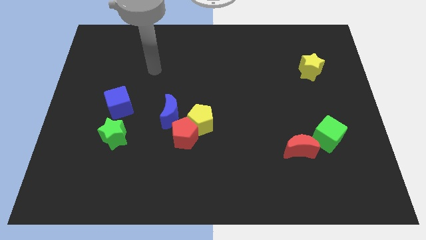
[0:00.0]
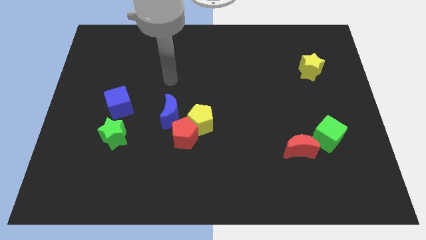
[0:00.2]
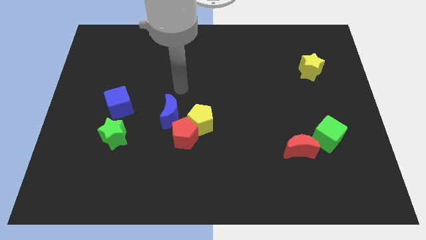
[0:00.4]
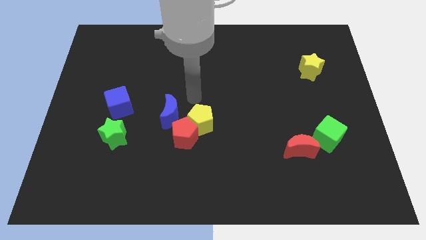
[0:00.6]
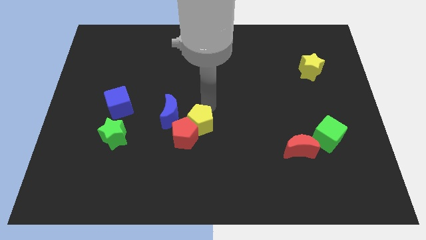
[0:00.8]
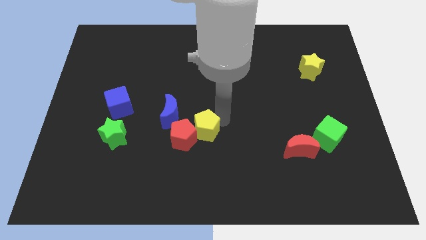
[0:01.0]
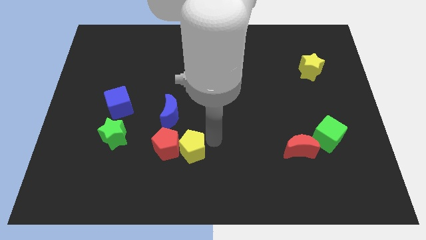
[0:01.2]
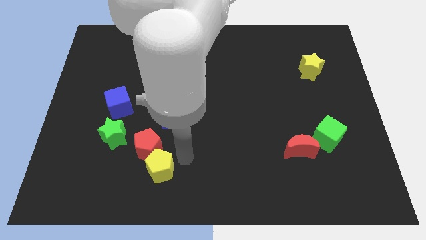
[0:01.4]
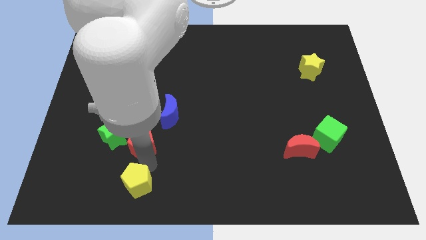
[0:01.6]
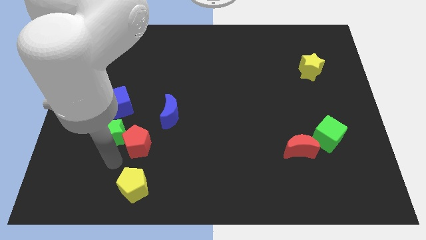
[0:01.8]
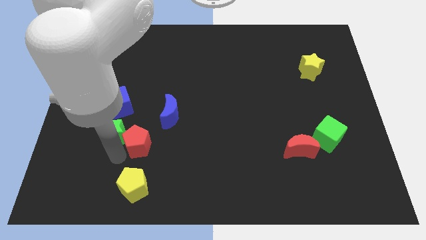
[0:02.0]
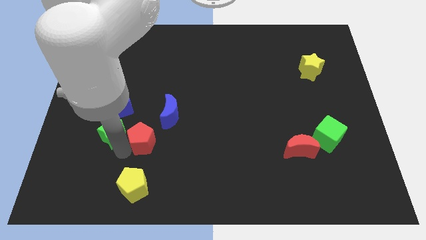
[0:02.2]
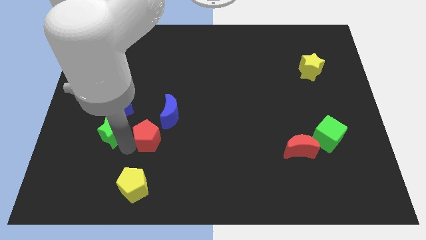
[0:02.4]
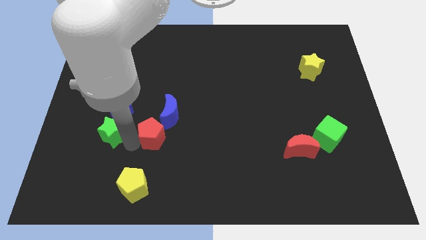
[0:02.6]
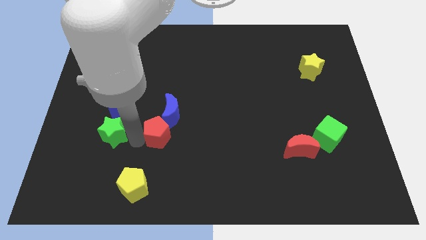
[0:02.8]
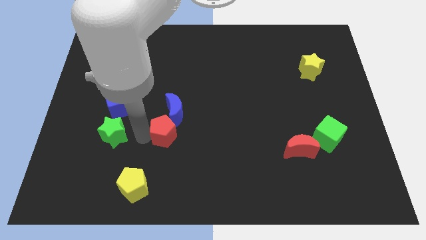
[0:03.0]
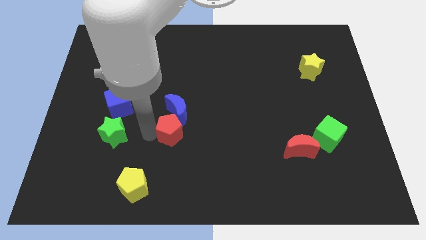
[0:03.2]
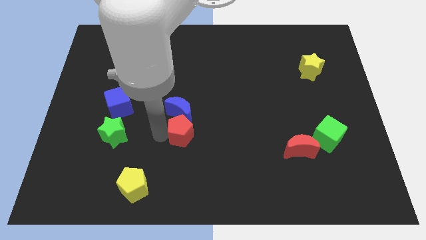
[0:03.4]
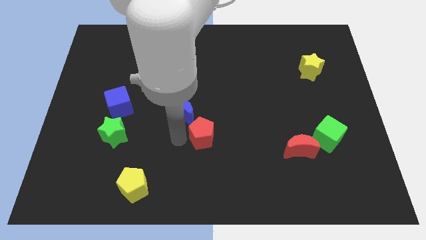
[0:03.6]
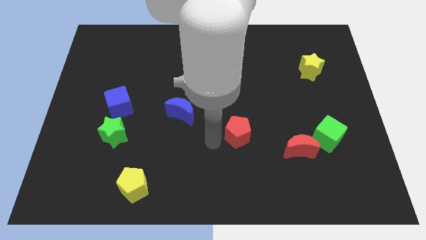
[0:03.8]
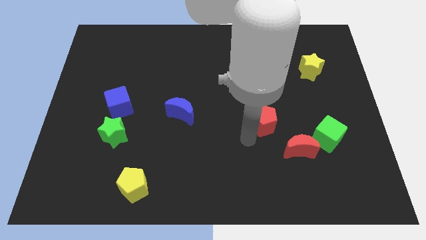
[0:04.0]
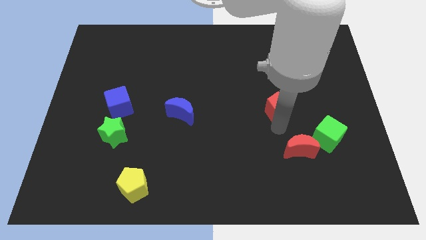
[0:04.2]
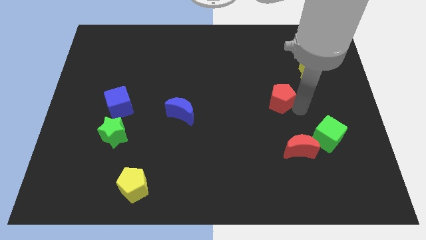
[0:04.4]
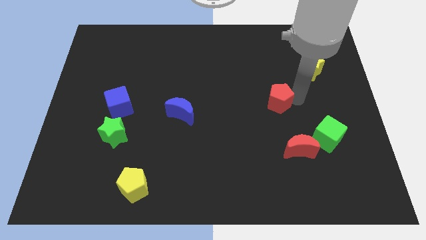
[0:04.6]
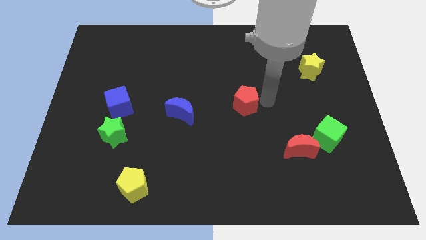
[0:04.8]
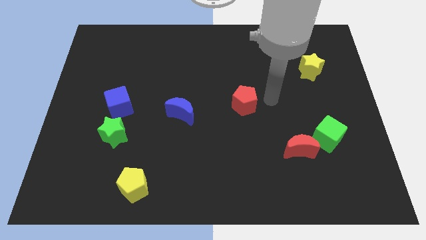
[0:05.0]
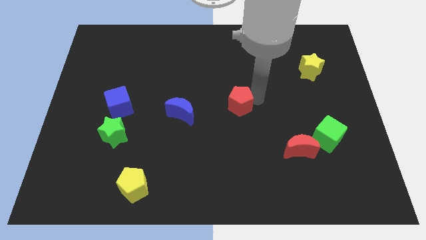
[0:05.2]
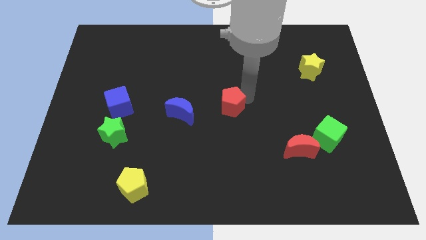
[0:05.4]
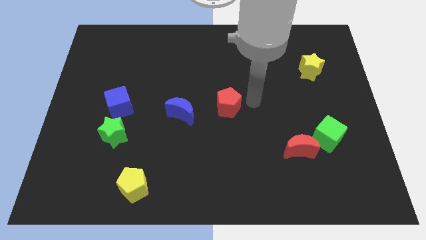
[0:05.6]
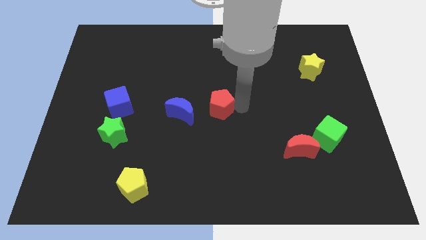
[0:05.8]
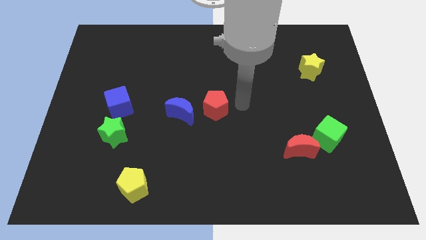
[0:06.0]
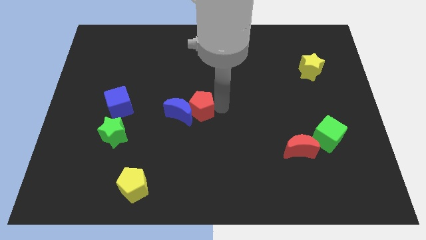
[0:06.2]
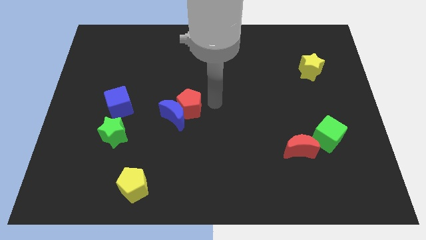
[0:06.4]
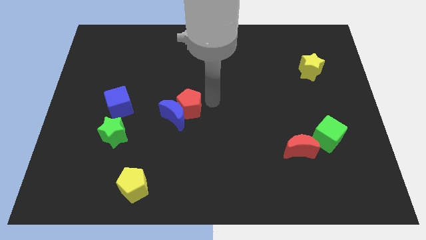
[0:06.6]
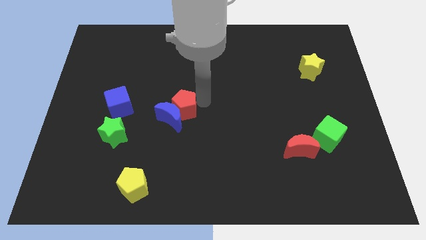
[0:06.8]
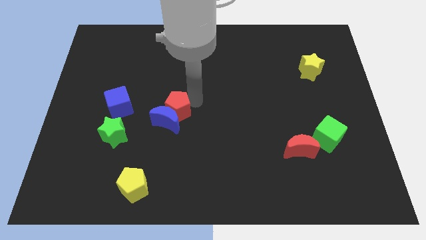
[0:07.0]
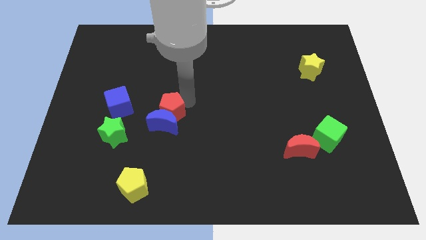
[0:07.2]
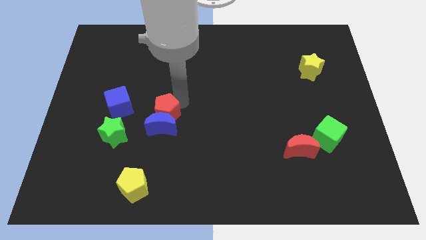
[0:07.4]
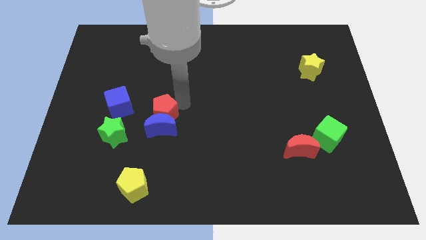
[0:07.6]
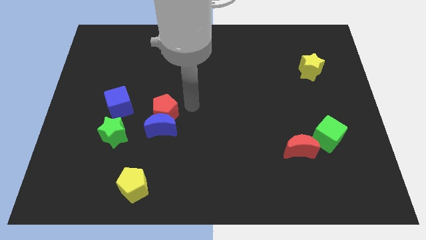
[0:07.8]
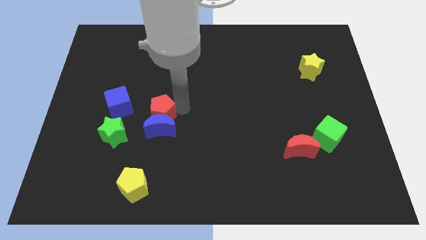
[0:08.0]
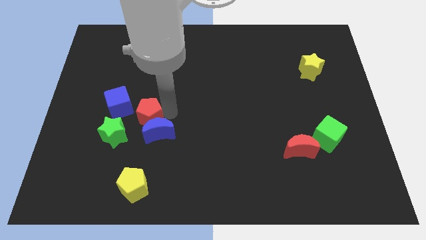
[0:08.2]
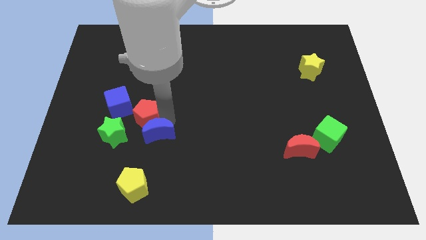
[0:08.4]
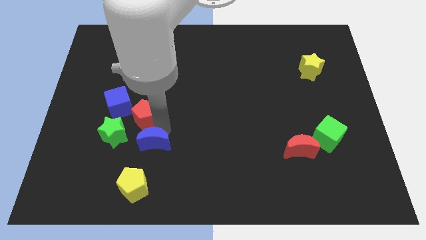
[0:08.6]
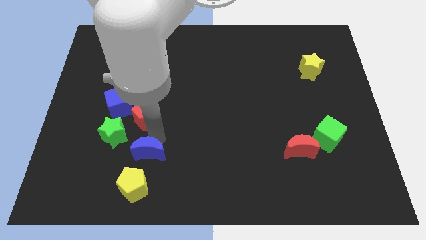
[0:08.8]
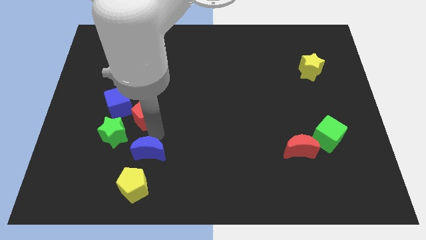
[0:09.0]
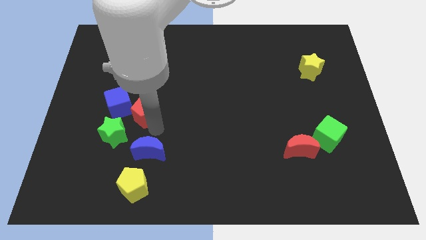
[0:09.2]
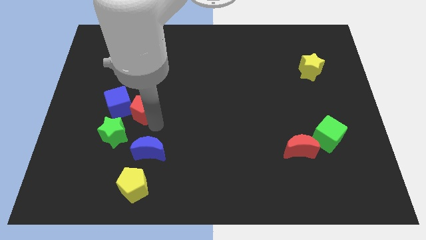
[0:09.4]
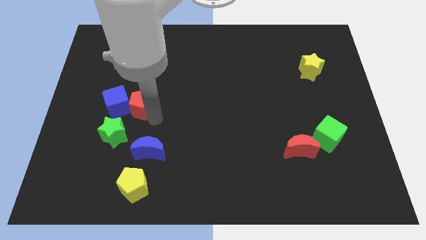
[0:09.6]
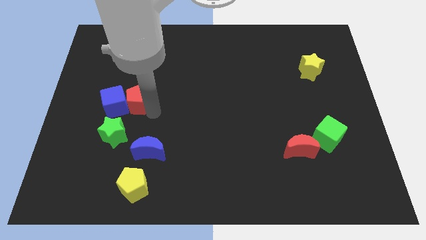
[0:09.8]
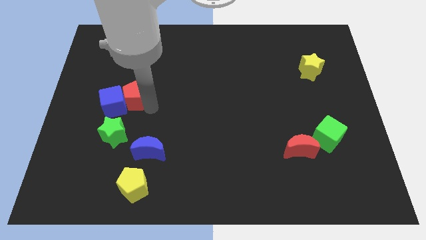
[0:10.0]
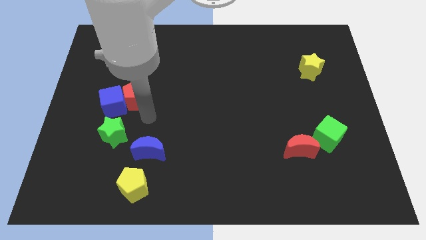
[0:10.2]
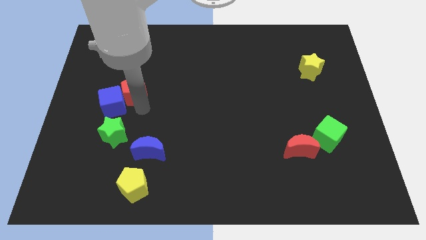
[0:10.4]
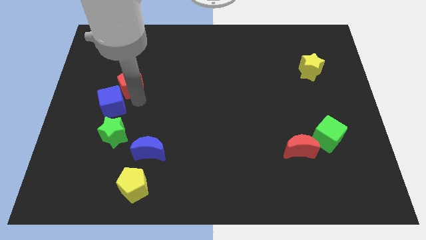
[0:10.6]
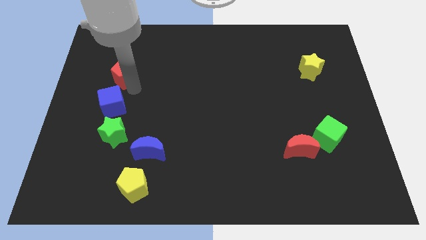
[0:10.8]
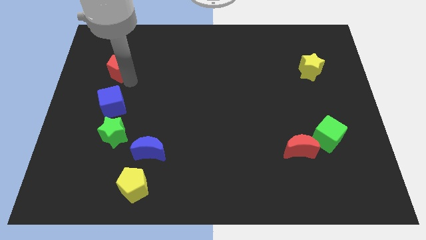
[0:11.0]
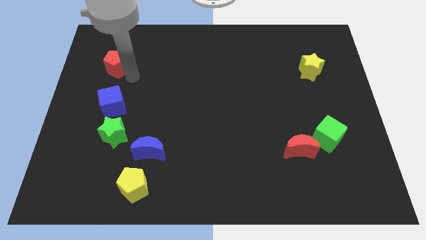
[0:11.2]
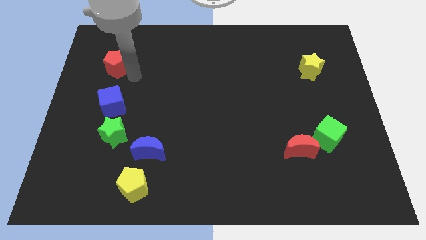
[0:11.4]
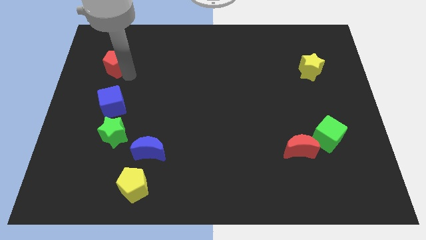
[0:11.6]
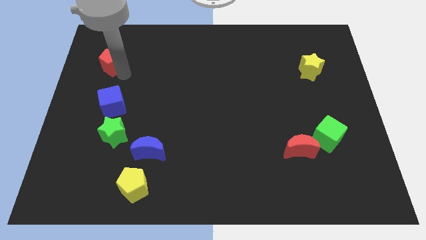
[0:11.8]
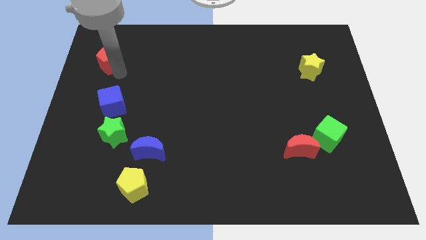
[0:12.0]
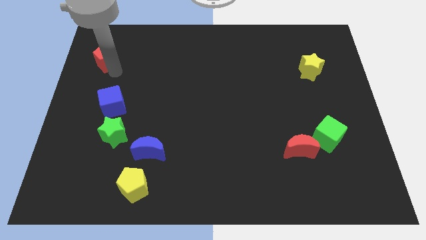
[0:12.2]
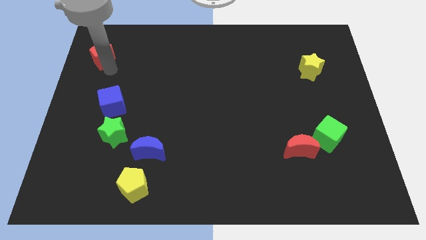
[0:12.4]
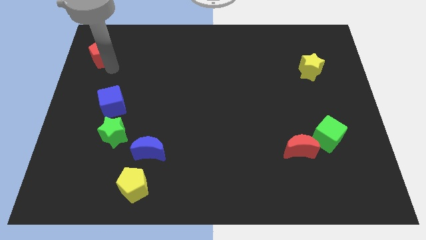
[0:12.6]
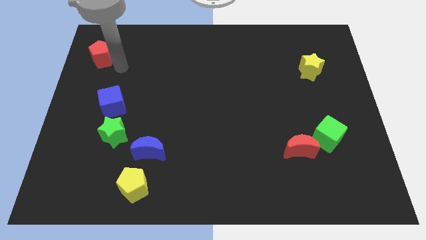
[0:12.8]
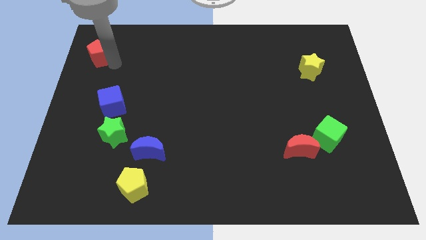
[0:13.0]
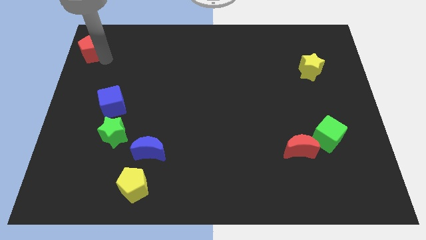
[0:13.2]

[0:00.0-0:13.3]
put the red pentagon to the top left of the board
